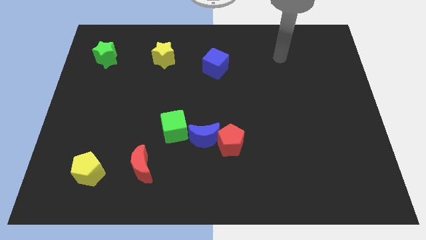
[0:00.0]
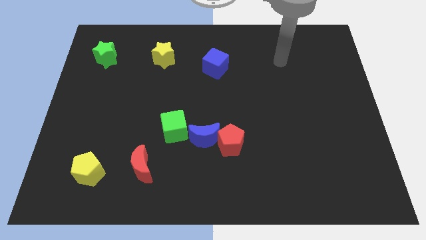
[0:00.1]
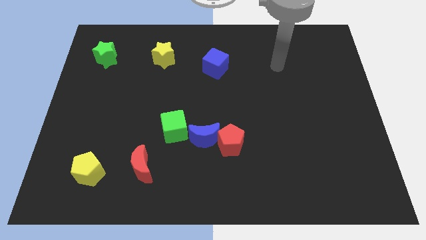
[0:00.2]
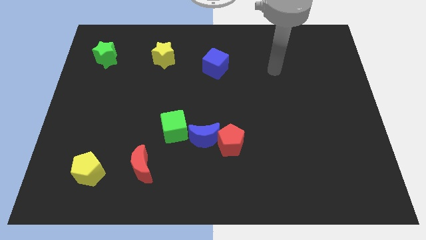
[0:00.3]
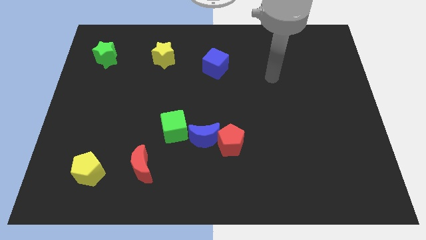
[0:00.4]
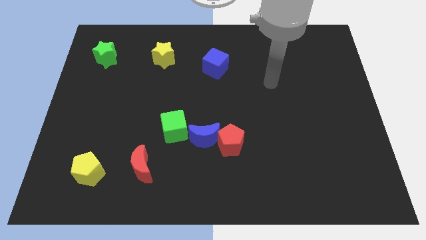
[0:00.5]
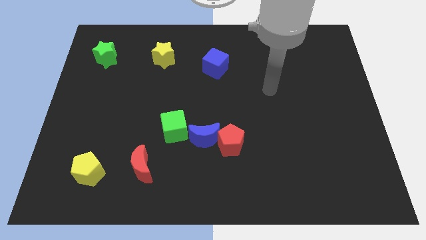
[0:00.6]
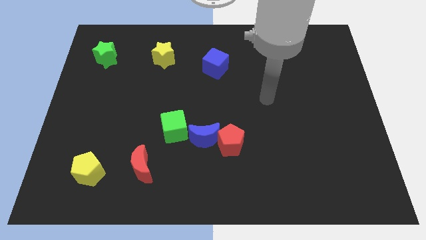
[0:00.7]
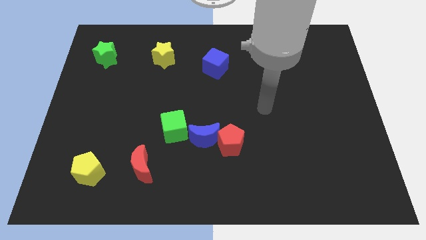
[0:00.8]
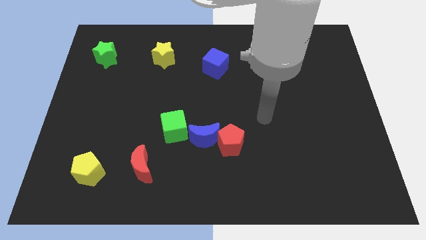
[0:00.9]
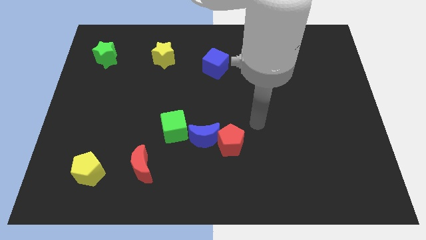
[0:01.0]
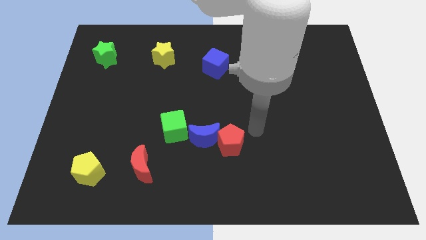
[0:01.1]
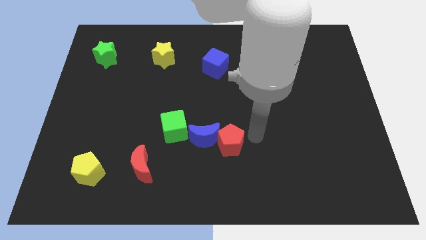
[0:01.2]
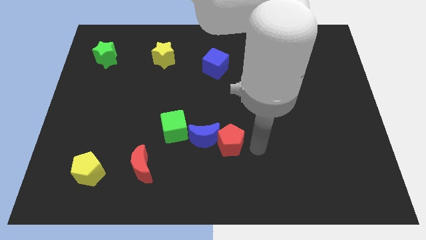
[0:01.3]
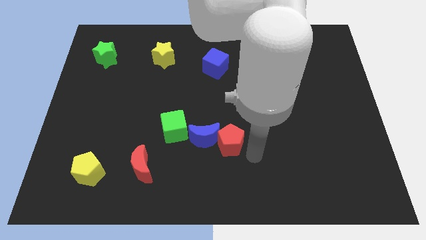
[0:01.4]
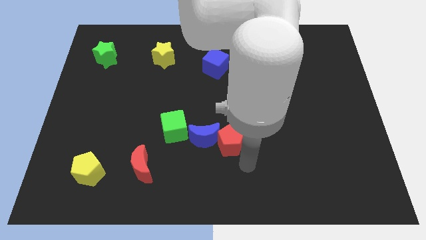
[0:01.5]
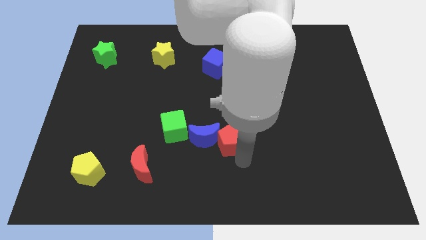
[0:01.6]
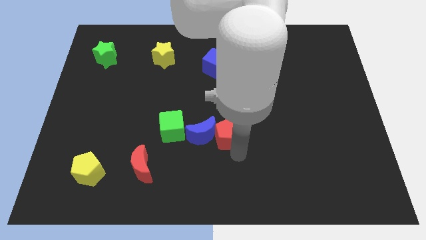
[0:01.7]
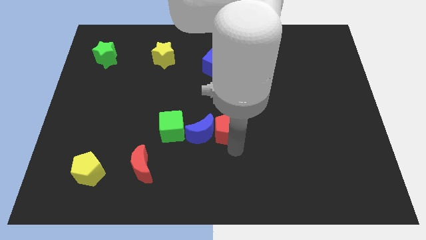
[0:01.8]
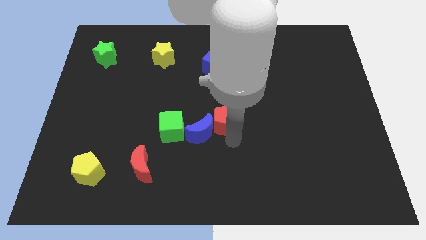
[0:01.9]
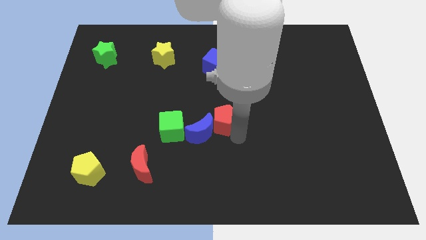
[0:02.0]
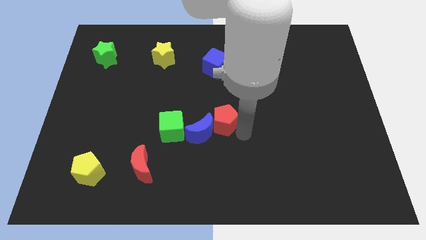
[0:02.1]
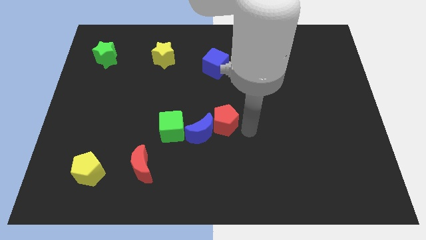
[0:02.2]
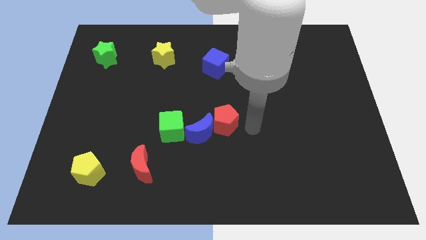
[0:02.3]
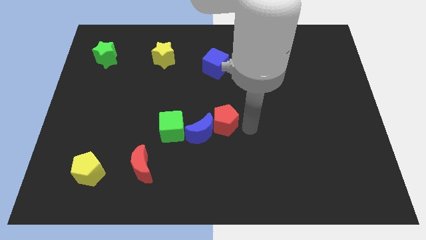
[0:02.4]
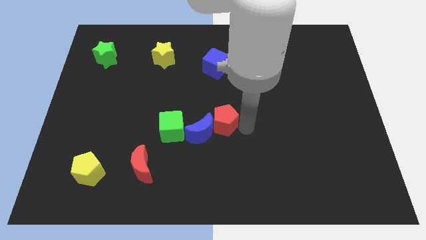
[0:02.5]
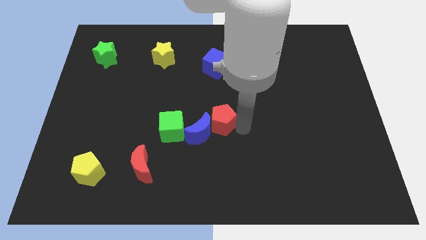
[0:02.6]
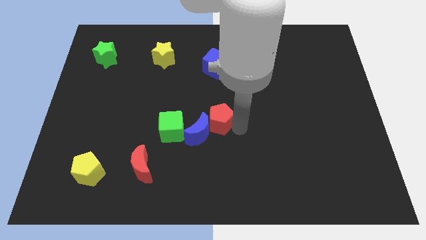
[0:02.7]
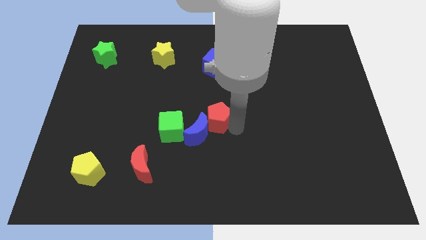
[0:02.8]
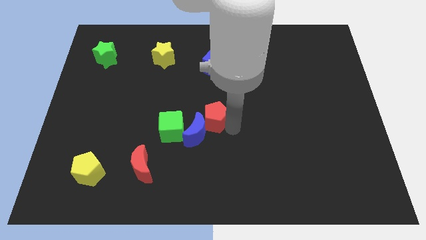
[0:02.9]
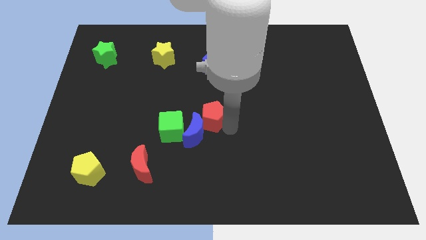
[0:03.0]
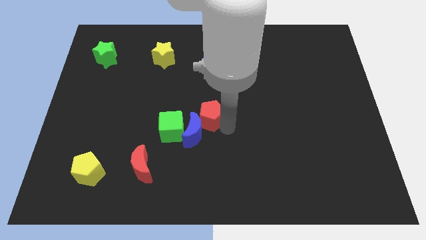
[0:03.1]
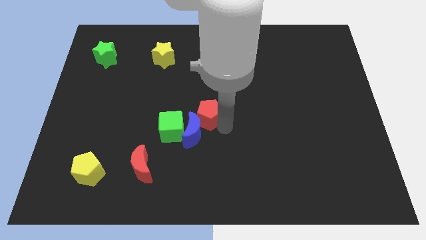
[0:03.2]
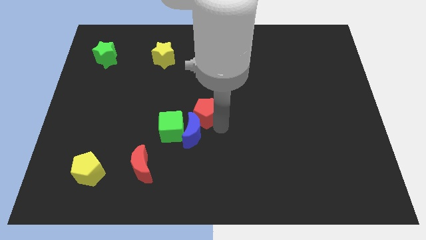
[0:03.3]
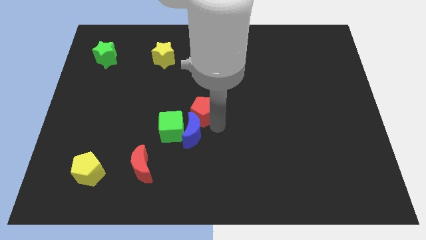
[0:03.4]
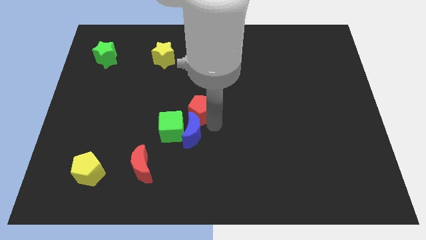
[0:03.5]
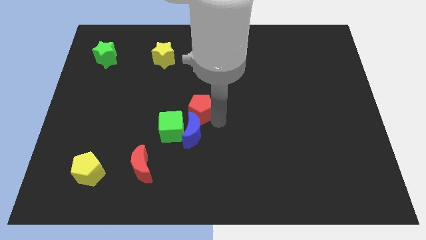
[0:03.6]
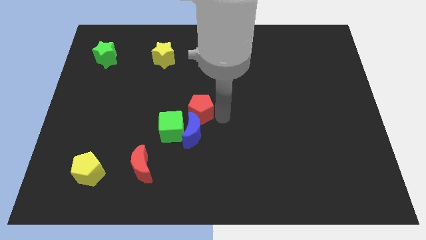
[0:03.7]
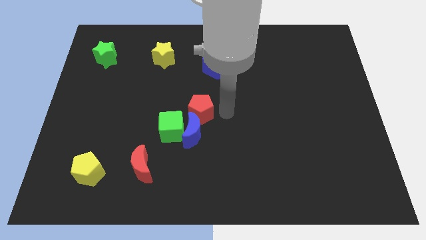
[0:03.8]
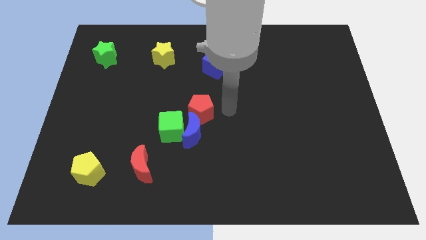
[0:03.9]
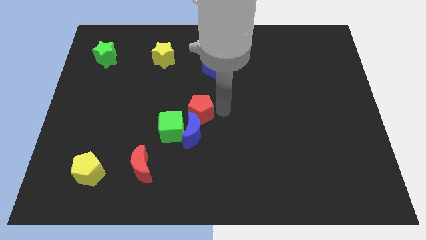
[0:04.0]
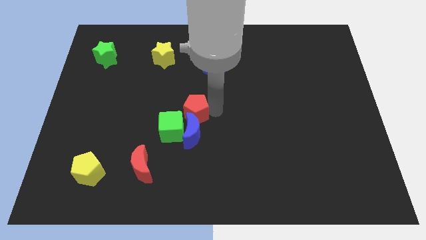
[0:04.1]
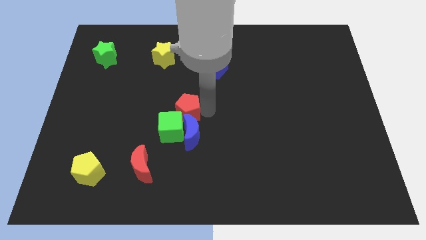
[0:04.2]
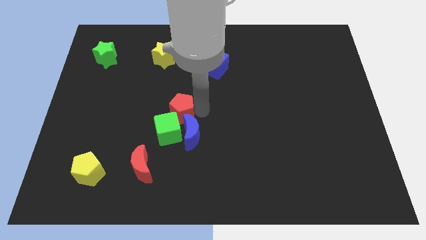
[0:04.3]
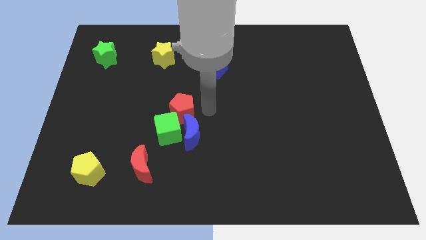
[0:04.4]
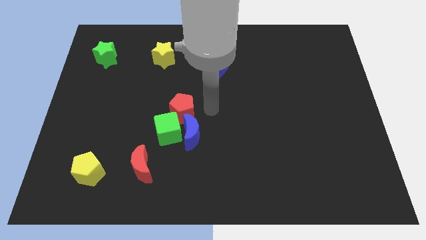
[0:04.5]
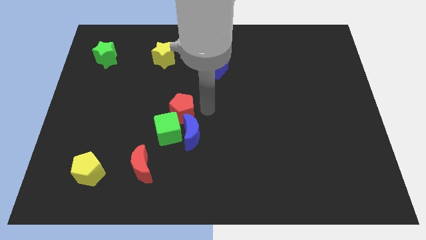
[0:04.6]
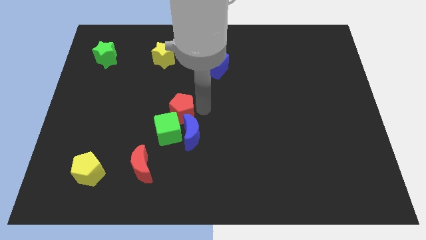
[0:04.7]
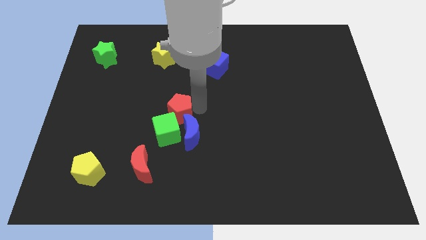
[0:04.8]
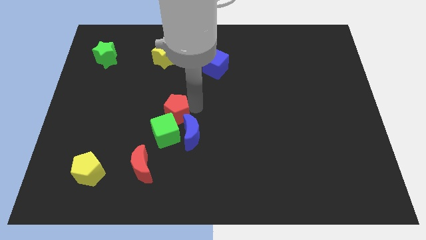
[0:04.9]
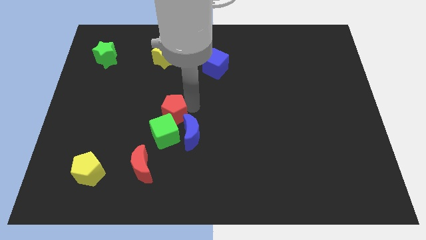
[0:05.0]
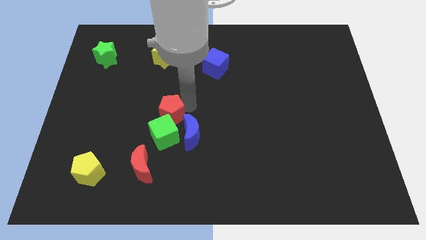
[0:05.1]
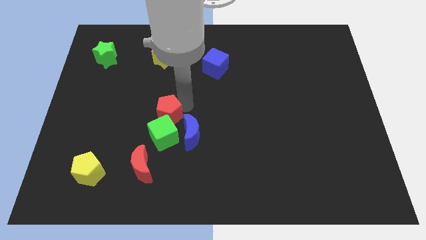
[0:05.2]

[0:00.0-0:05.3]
slide the red pentagon to the top left of the green cube

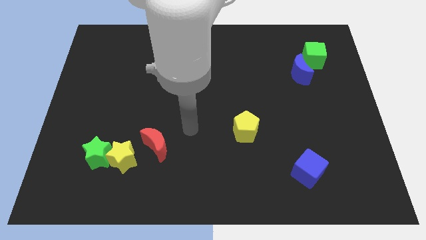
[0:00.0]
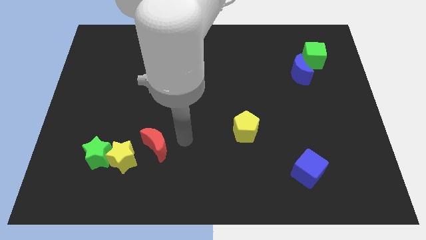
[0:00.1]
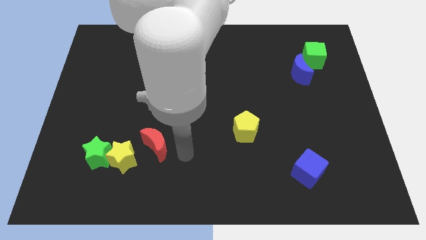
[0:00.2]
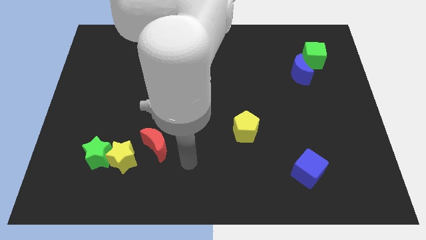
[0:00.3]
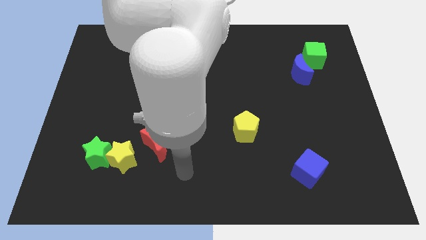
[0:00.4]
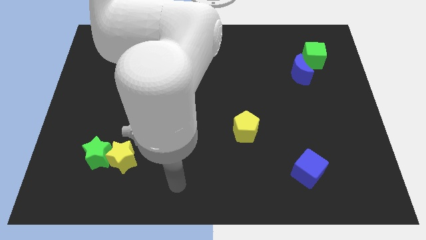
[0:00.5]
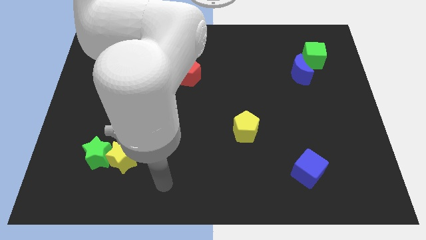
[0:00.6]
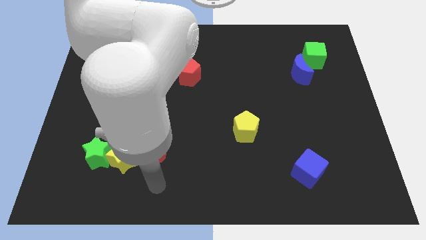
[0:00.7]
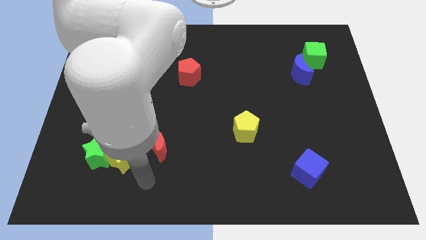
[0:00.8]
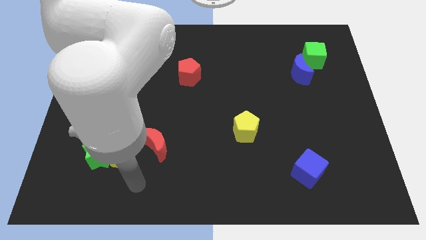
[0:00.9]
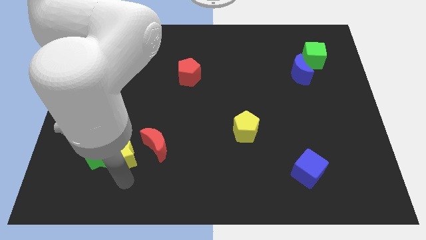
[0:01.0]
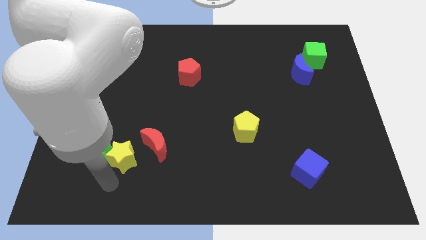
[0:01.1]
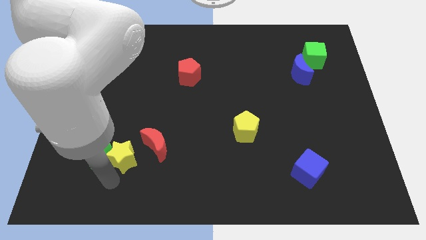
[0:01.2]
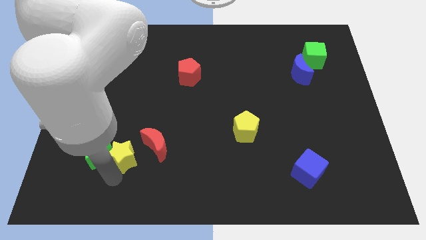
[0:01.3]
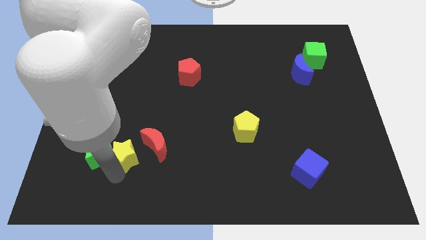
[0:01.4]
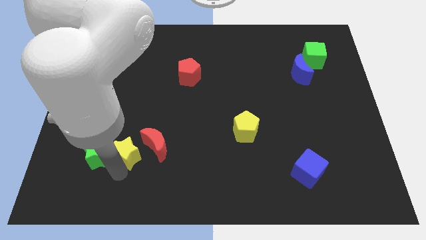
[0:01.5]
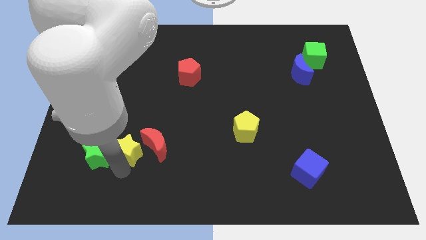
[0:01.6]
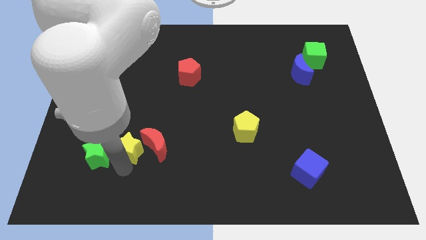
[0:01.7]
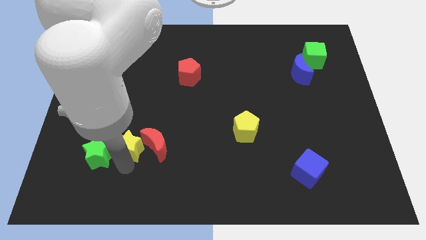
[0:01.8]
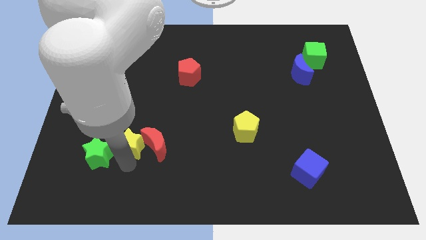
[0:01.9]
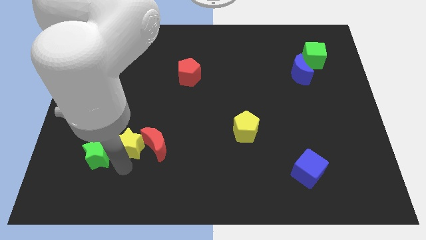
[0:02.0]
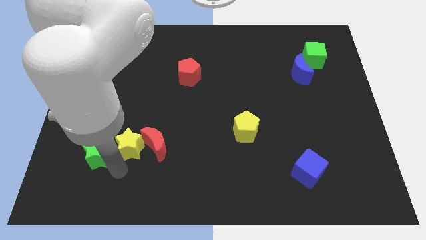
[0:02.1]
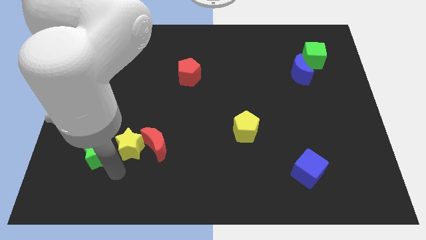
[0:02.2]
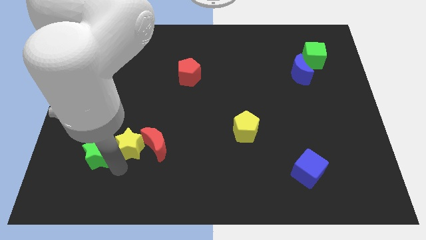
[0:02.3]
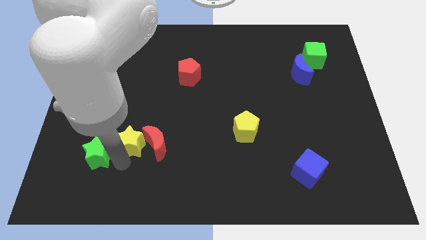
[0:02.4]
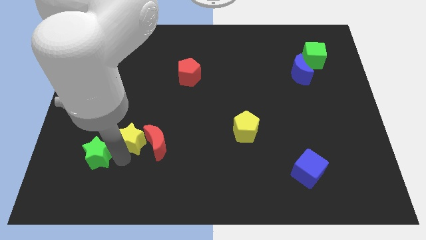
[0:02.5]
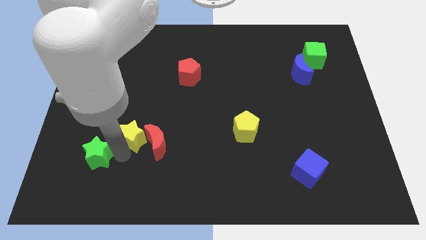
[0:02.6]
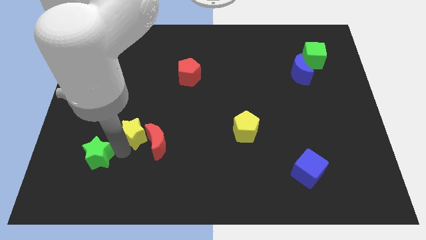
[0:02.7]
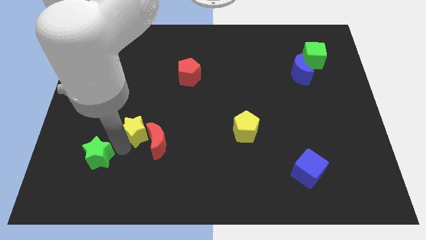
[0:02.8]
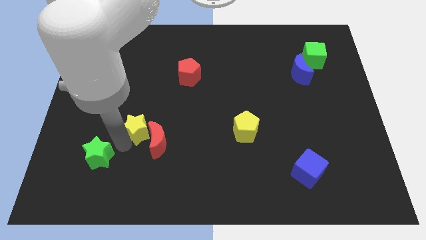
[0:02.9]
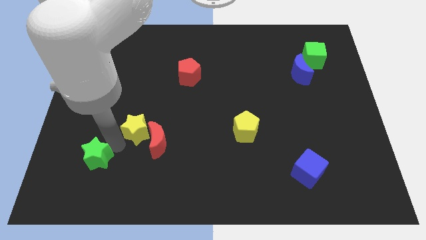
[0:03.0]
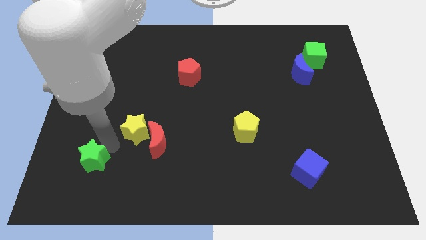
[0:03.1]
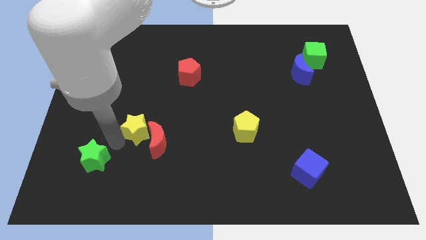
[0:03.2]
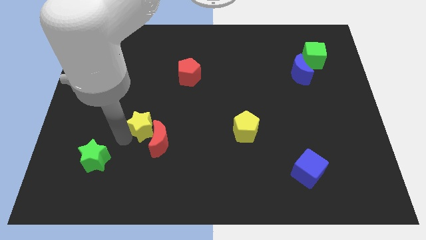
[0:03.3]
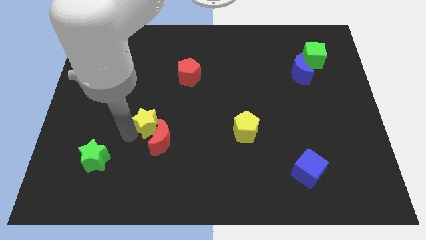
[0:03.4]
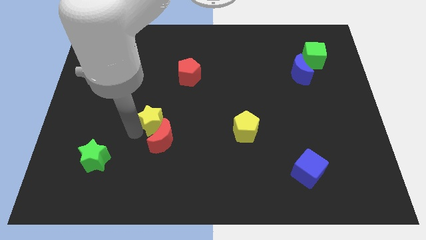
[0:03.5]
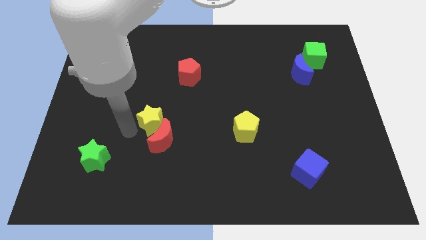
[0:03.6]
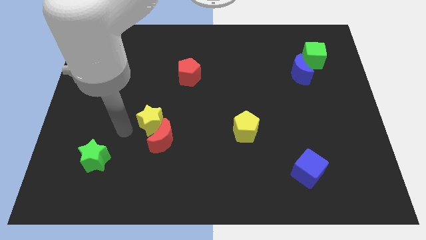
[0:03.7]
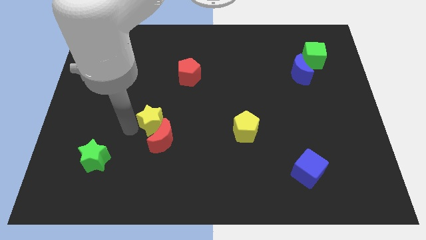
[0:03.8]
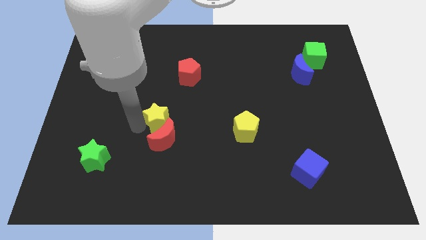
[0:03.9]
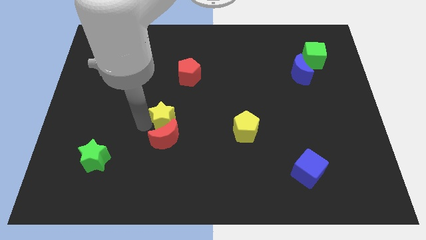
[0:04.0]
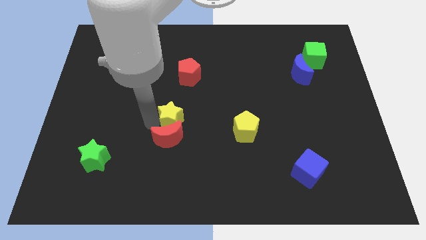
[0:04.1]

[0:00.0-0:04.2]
slide the yellow star below the red pentagon
